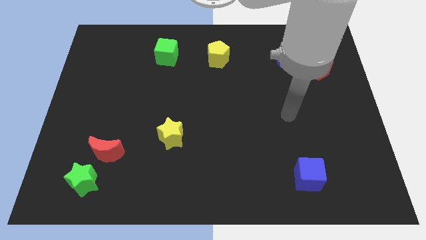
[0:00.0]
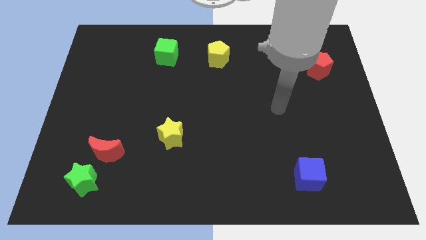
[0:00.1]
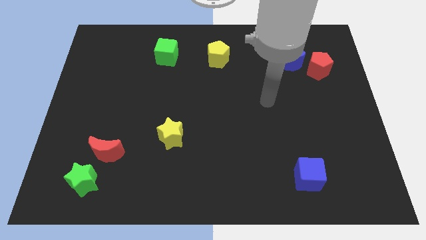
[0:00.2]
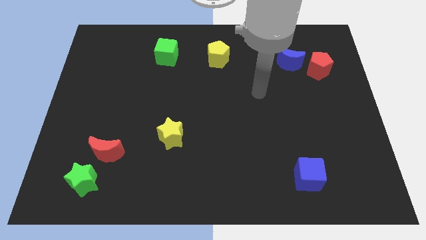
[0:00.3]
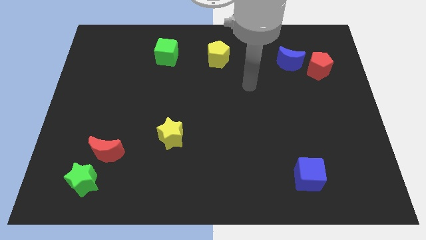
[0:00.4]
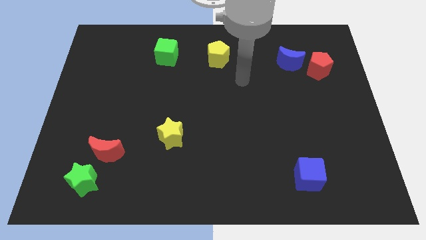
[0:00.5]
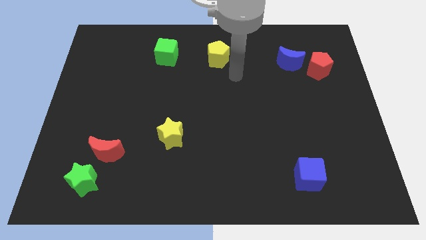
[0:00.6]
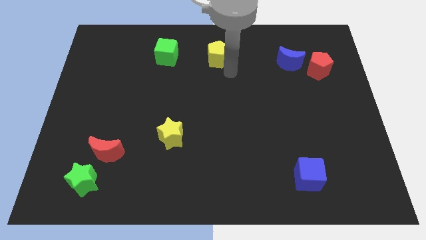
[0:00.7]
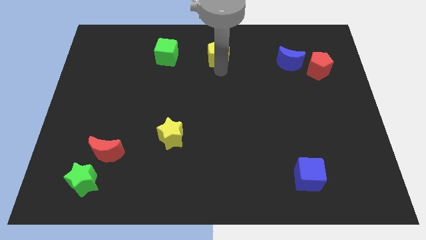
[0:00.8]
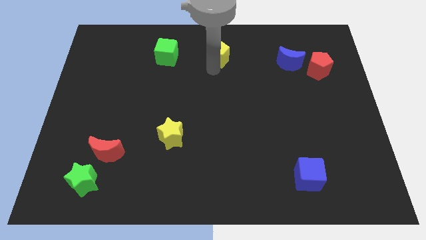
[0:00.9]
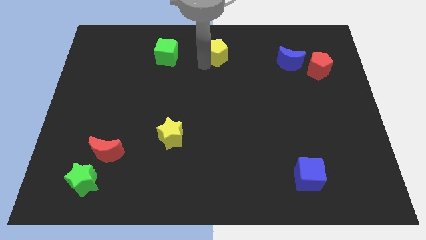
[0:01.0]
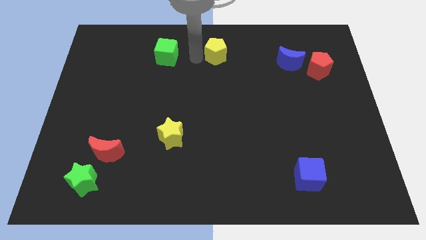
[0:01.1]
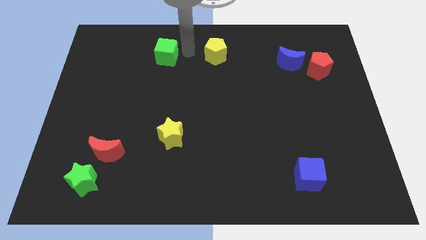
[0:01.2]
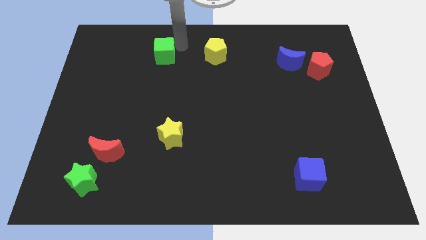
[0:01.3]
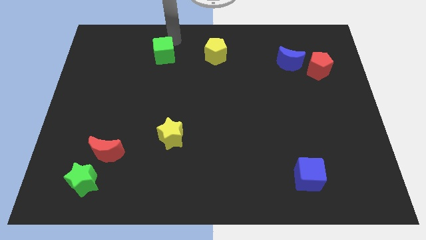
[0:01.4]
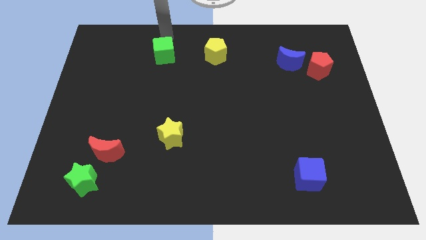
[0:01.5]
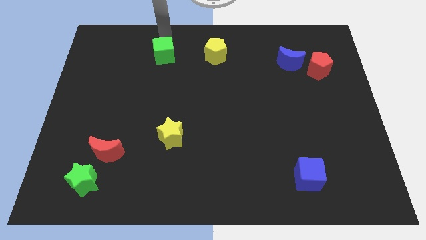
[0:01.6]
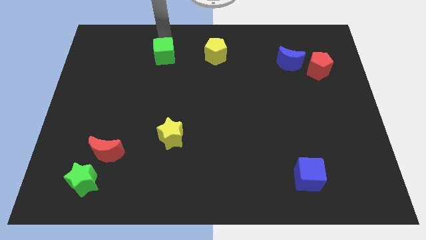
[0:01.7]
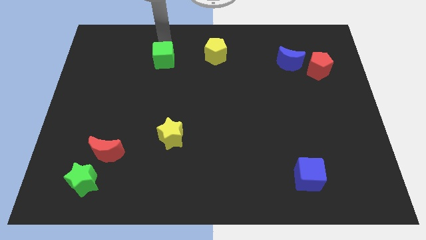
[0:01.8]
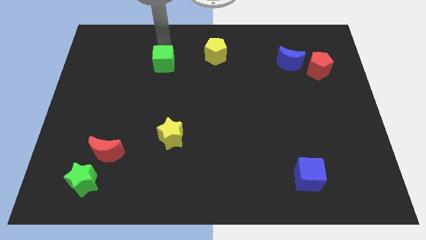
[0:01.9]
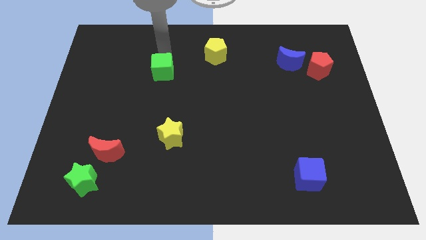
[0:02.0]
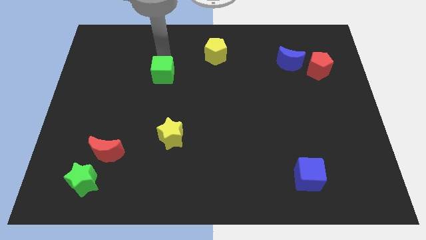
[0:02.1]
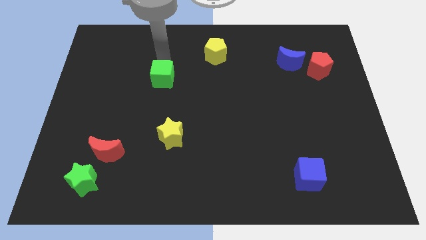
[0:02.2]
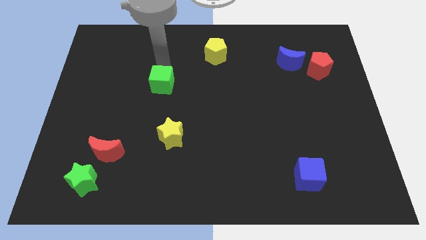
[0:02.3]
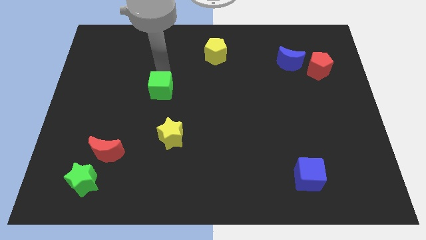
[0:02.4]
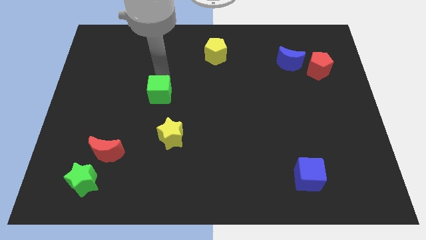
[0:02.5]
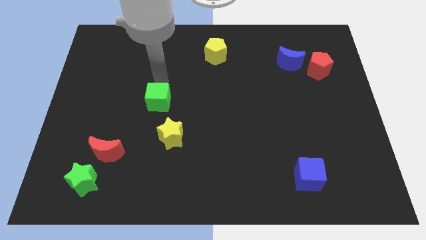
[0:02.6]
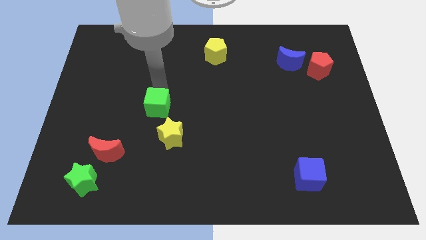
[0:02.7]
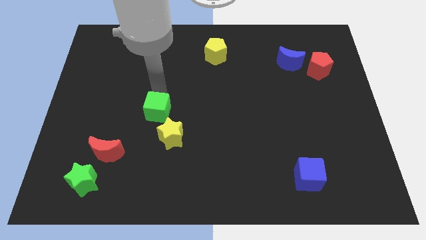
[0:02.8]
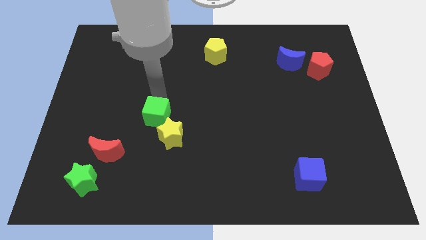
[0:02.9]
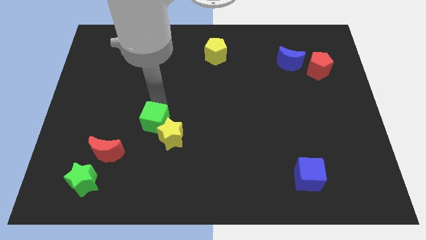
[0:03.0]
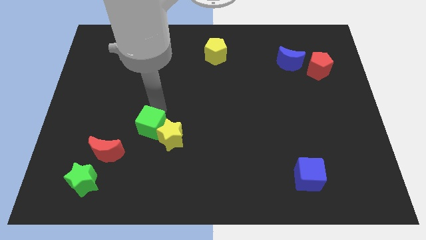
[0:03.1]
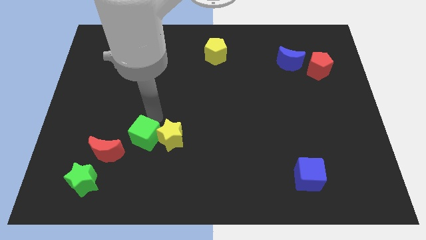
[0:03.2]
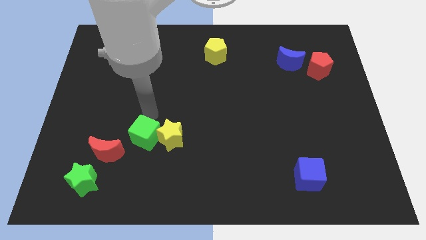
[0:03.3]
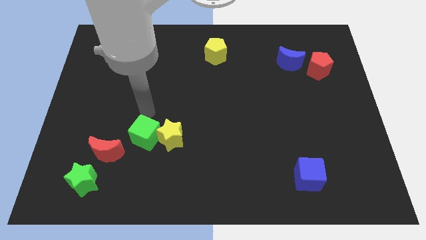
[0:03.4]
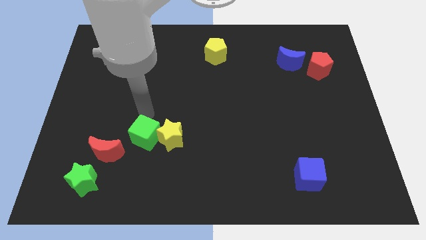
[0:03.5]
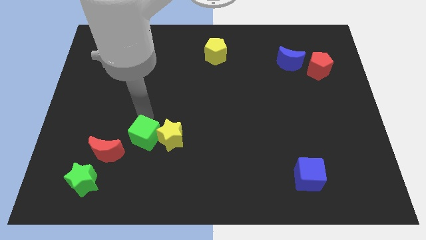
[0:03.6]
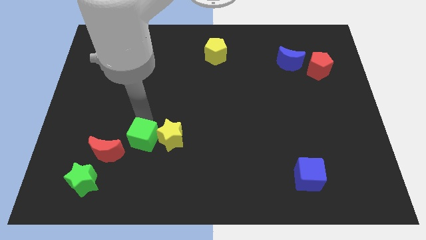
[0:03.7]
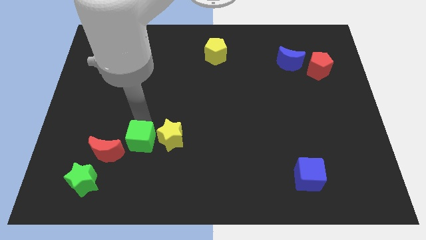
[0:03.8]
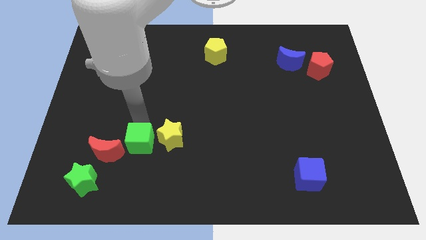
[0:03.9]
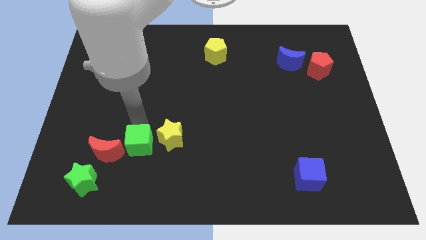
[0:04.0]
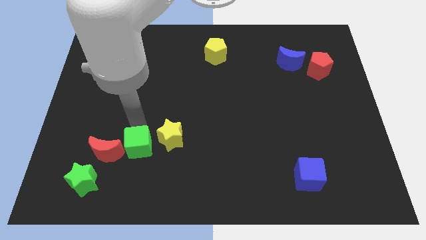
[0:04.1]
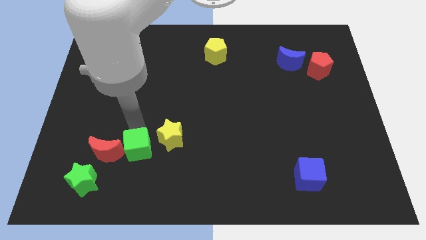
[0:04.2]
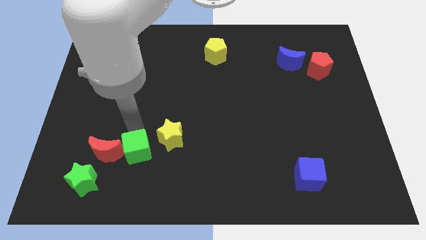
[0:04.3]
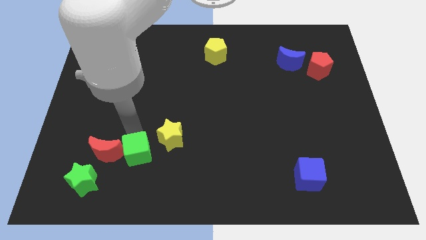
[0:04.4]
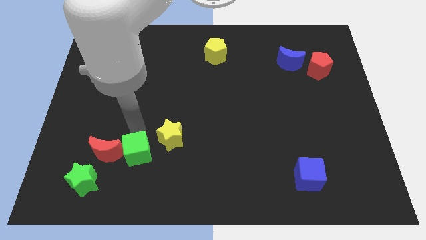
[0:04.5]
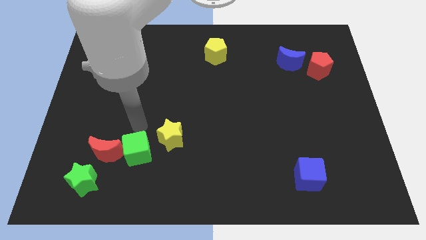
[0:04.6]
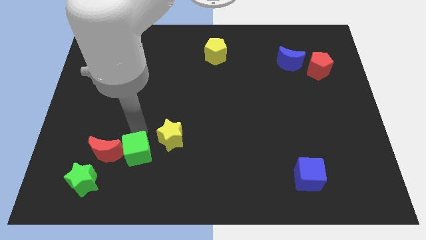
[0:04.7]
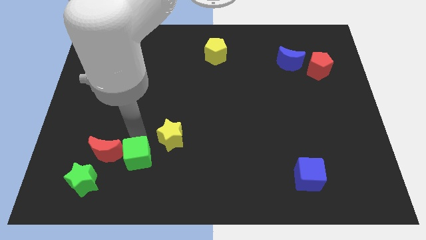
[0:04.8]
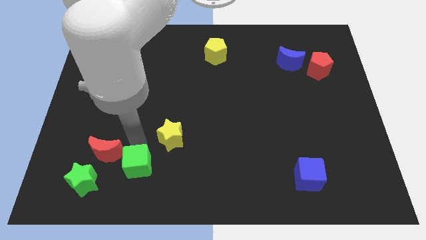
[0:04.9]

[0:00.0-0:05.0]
put the green cube to the right of the green star

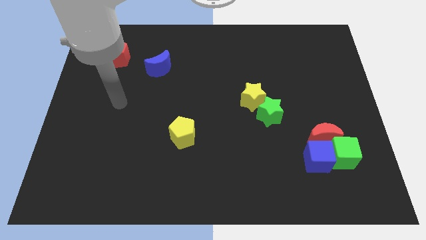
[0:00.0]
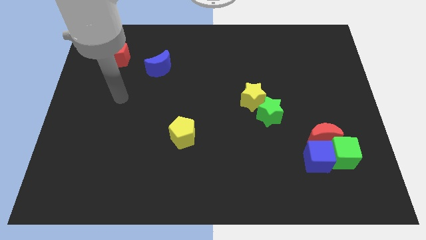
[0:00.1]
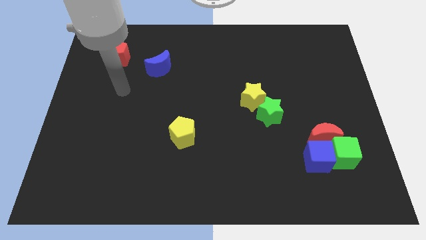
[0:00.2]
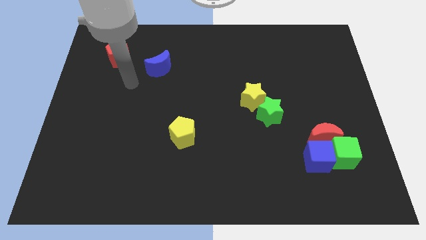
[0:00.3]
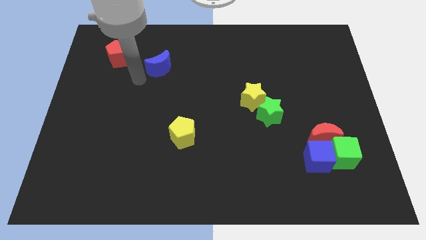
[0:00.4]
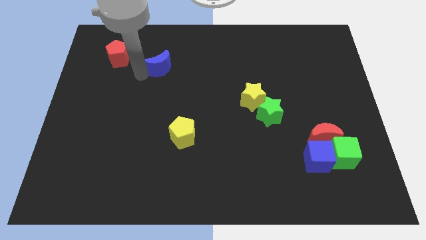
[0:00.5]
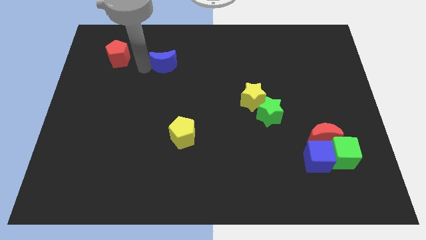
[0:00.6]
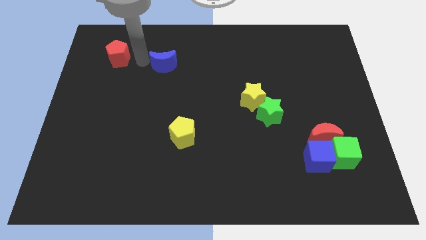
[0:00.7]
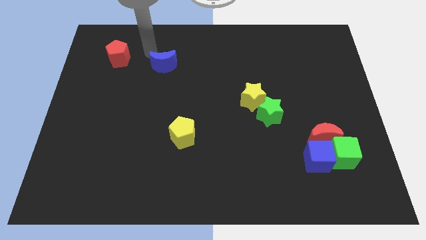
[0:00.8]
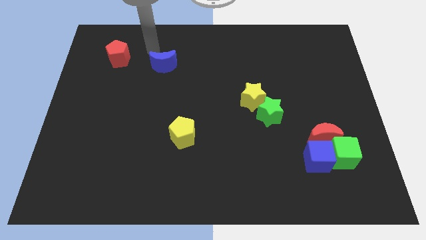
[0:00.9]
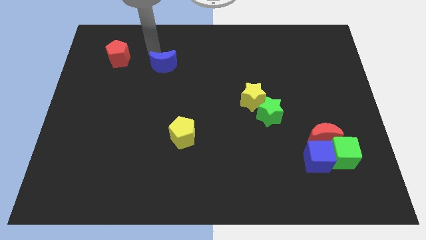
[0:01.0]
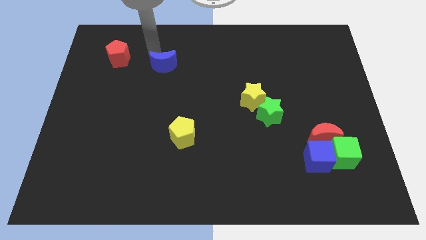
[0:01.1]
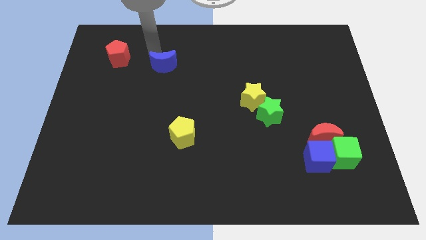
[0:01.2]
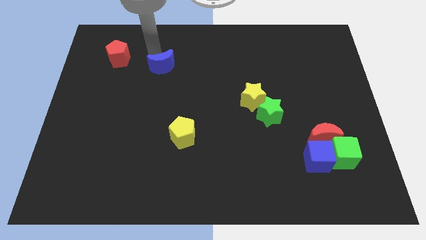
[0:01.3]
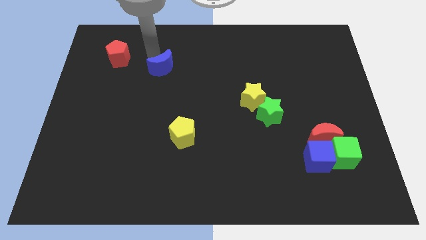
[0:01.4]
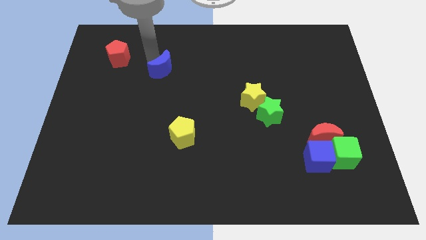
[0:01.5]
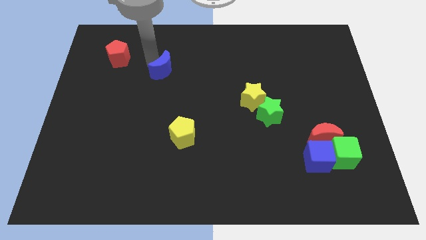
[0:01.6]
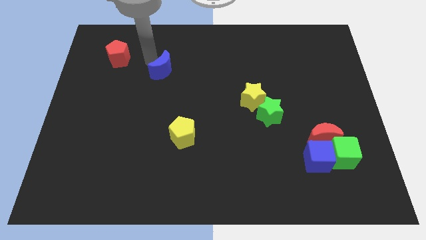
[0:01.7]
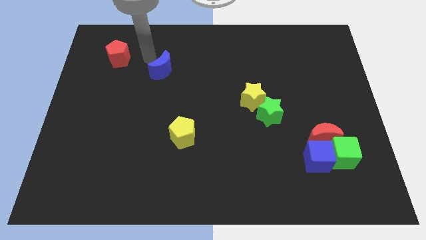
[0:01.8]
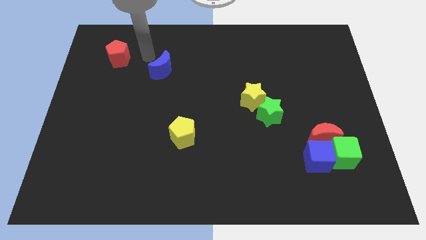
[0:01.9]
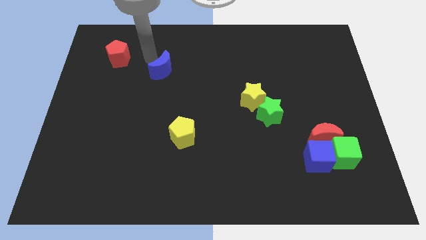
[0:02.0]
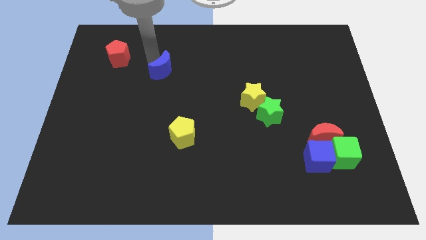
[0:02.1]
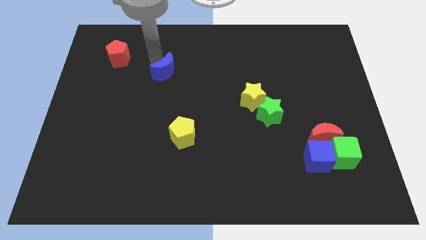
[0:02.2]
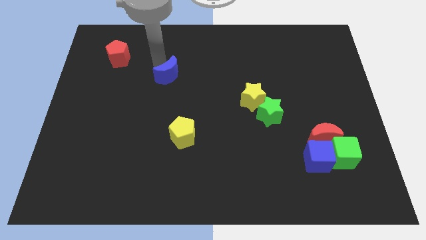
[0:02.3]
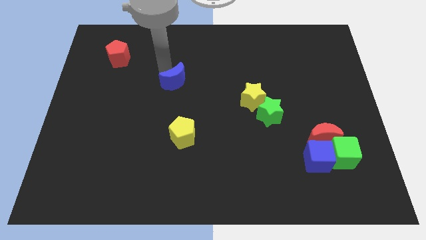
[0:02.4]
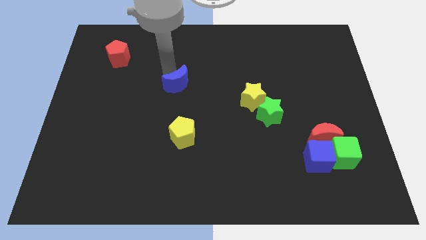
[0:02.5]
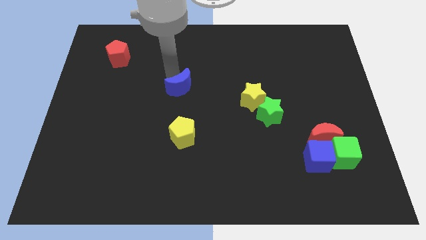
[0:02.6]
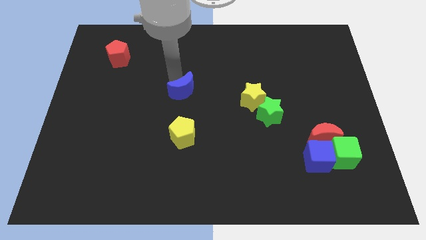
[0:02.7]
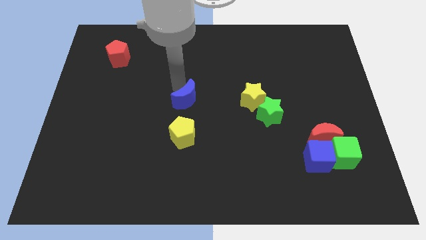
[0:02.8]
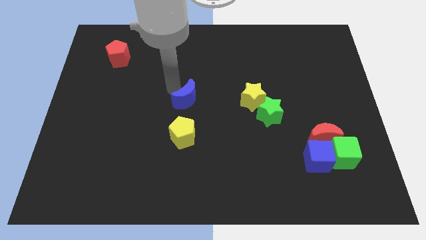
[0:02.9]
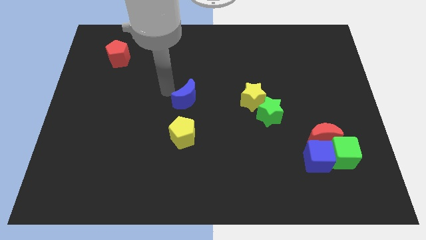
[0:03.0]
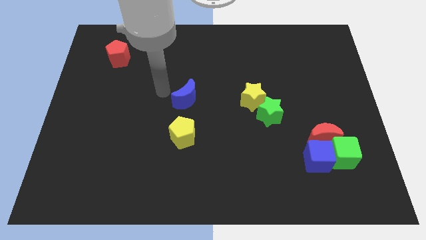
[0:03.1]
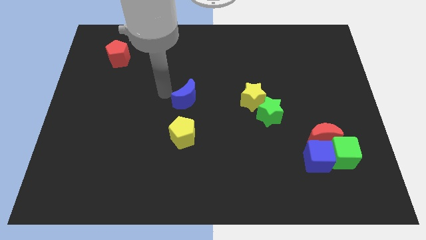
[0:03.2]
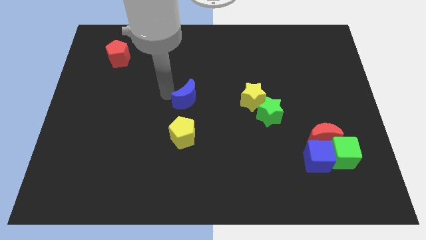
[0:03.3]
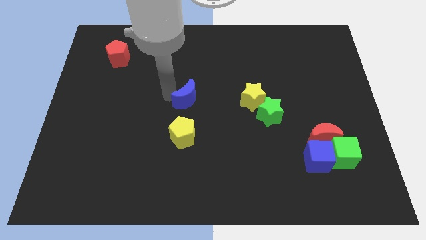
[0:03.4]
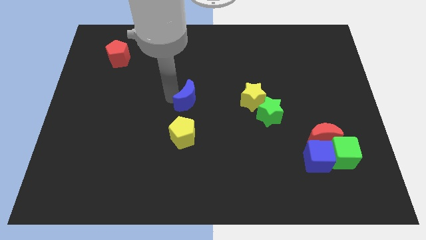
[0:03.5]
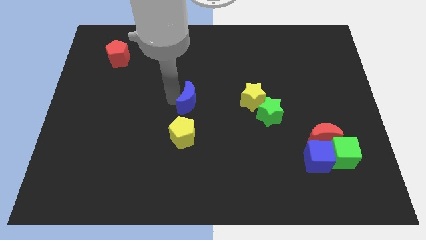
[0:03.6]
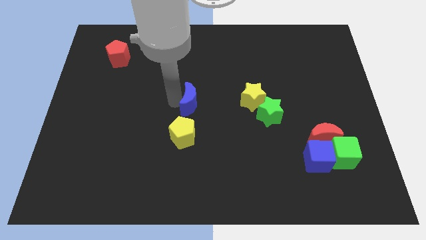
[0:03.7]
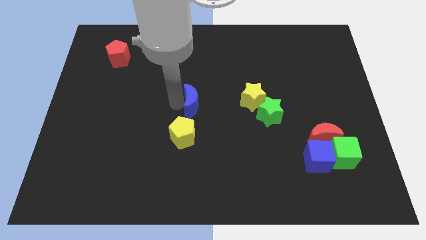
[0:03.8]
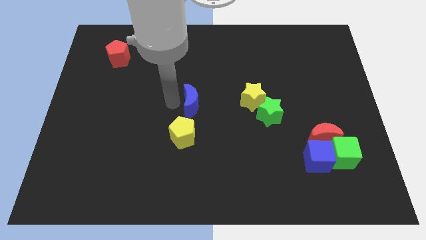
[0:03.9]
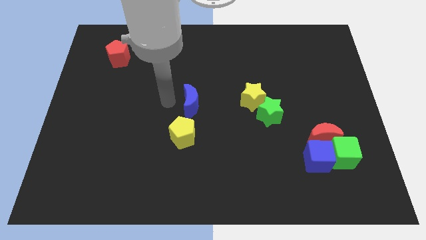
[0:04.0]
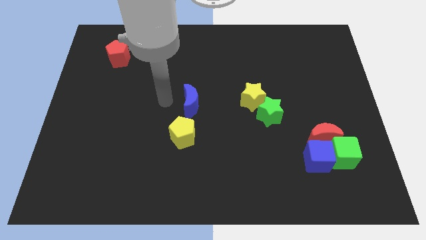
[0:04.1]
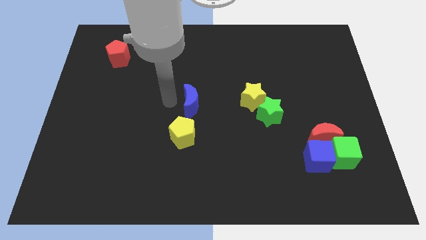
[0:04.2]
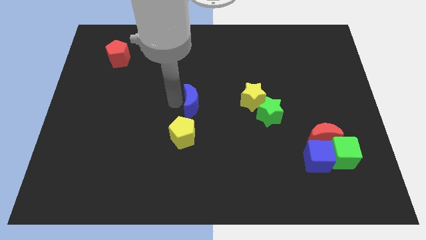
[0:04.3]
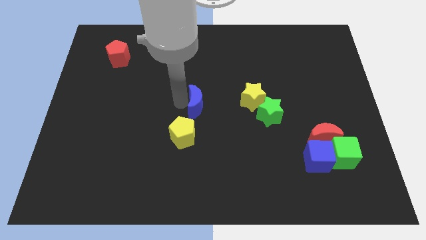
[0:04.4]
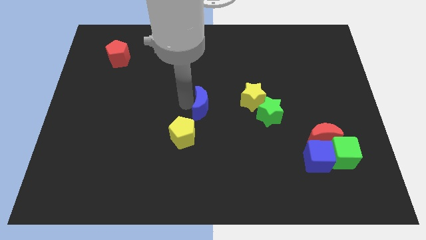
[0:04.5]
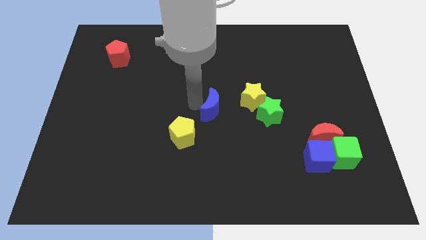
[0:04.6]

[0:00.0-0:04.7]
move the blue moon to the bottom left of the yellow star
